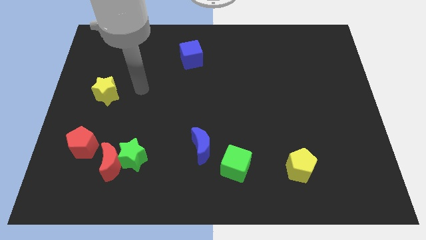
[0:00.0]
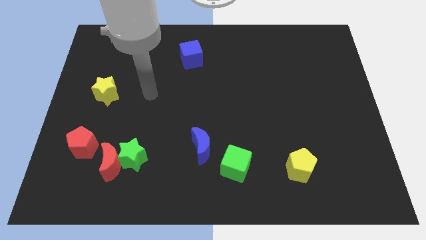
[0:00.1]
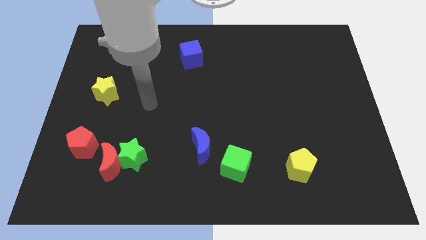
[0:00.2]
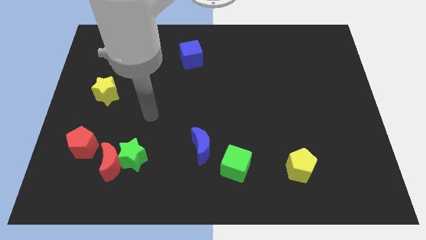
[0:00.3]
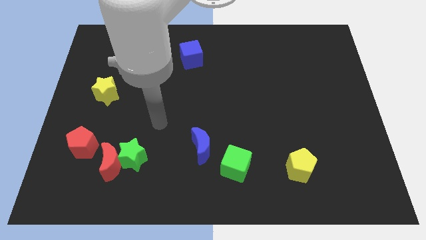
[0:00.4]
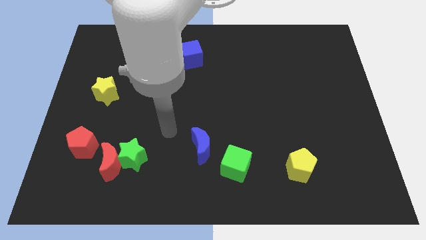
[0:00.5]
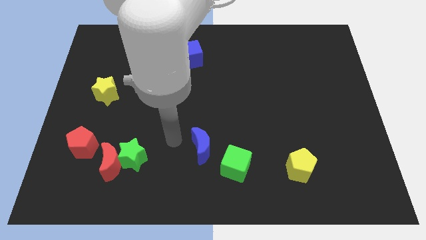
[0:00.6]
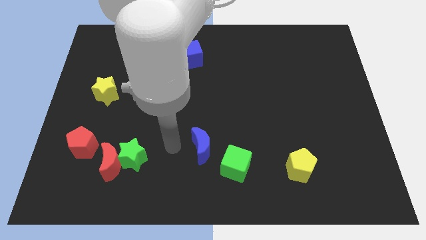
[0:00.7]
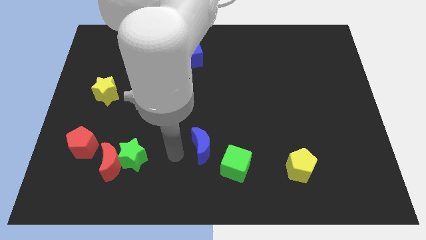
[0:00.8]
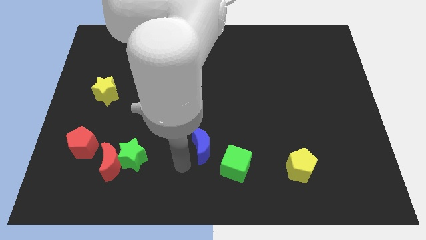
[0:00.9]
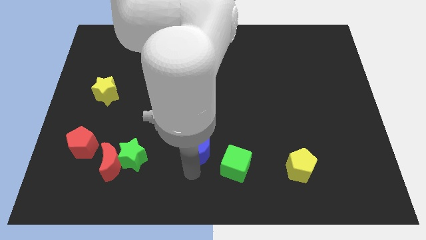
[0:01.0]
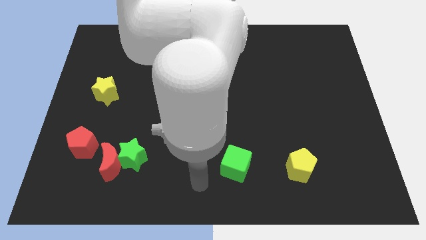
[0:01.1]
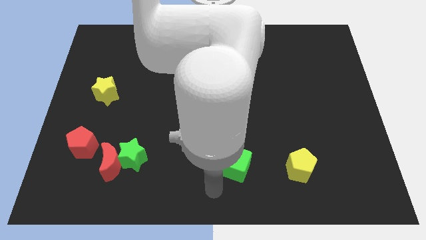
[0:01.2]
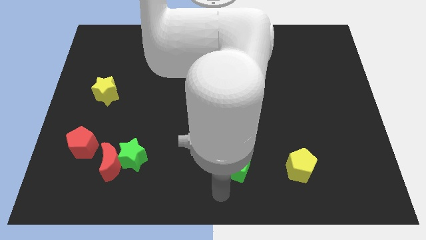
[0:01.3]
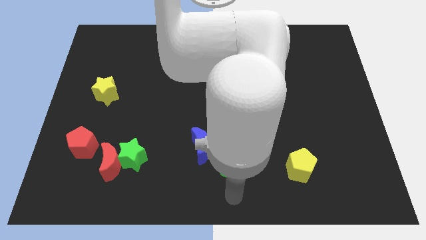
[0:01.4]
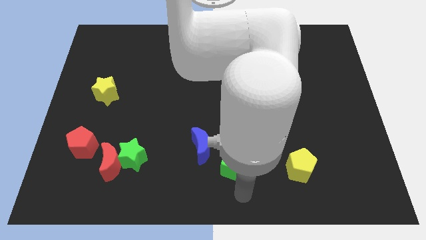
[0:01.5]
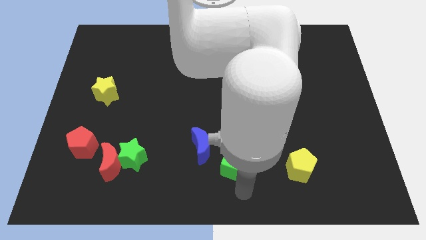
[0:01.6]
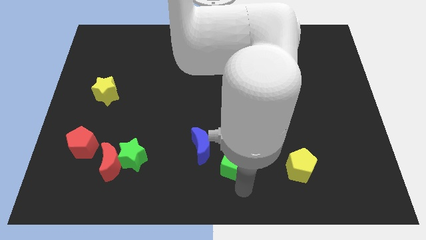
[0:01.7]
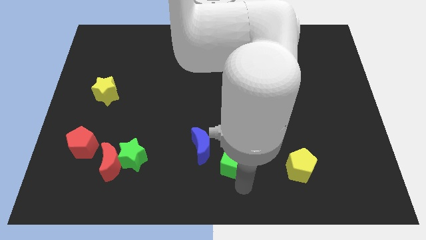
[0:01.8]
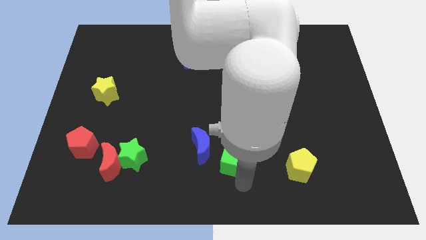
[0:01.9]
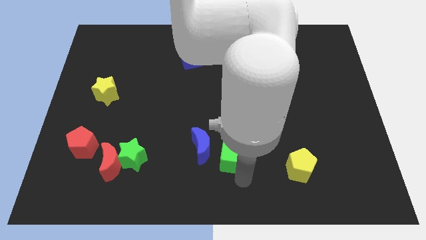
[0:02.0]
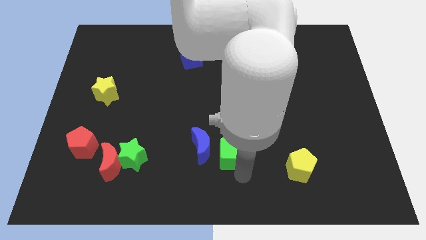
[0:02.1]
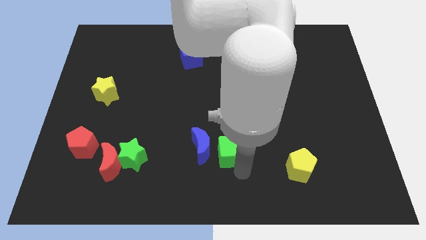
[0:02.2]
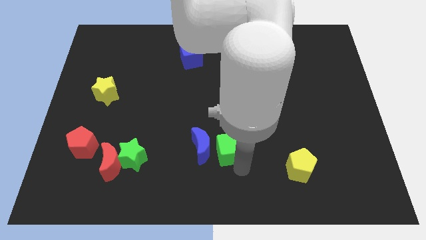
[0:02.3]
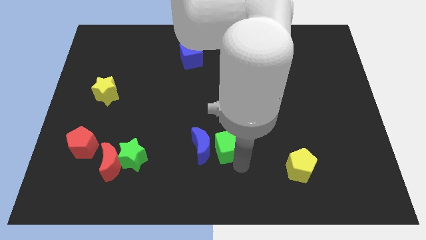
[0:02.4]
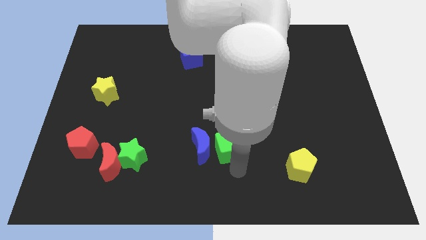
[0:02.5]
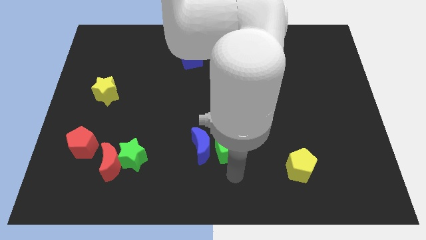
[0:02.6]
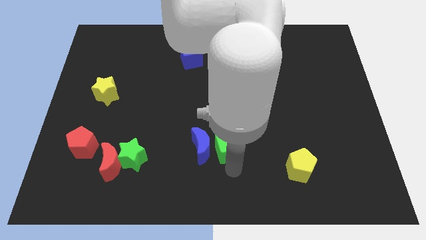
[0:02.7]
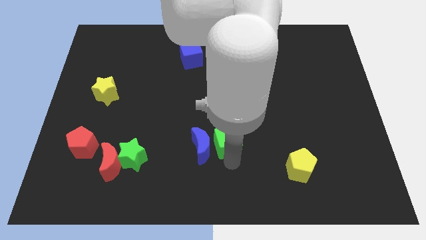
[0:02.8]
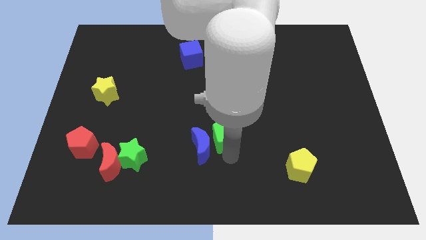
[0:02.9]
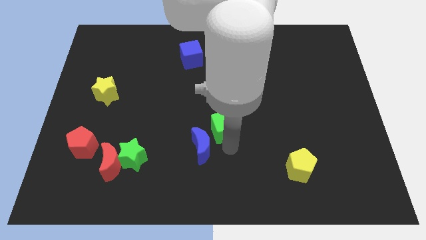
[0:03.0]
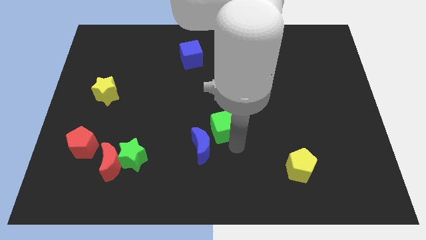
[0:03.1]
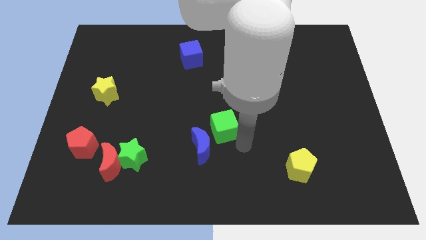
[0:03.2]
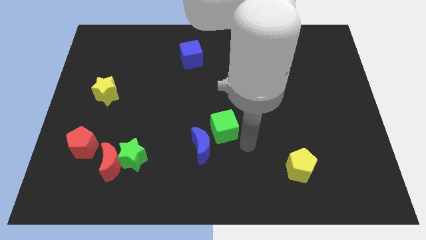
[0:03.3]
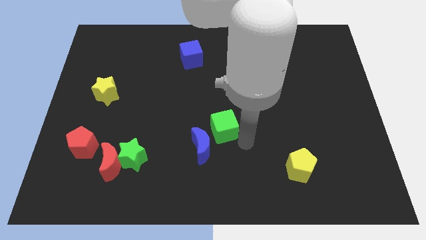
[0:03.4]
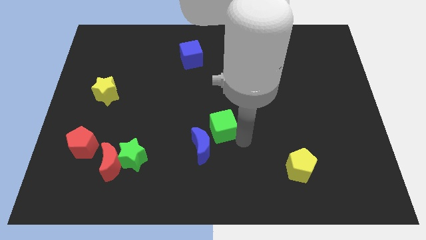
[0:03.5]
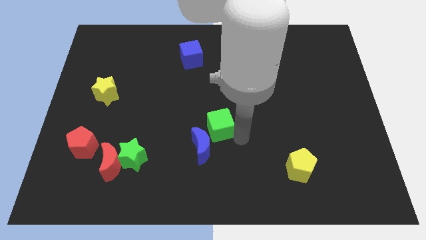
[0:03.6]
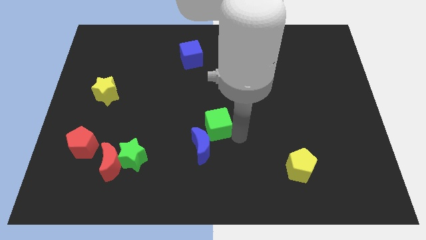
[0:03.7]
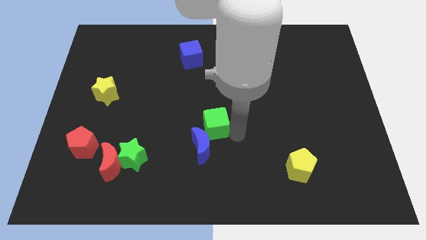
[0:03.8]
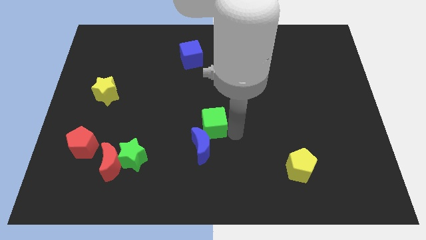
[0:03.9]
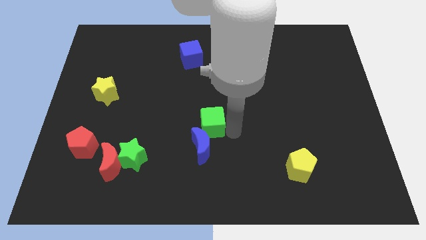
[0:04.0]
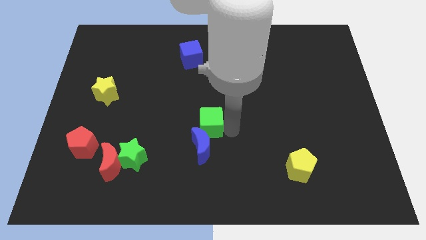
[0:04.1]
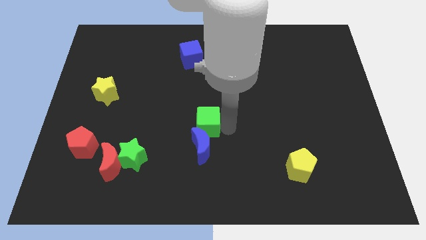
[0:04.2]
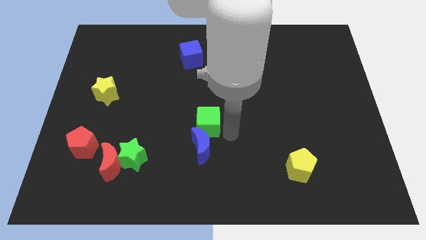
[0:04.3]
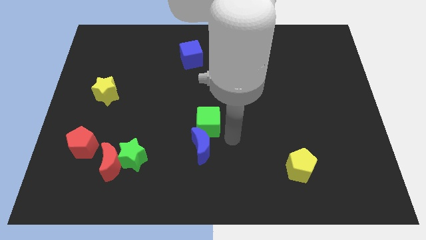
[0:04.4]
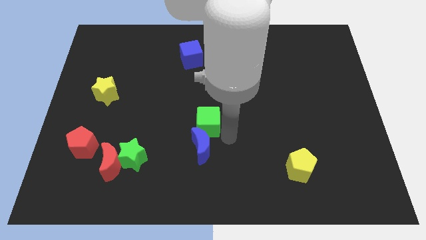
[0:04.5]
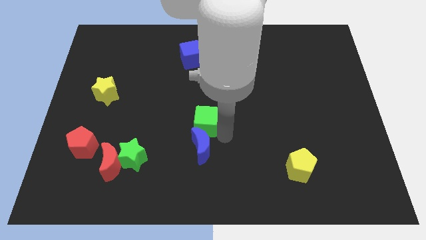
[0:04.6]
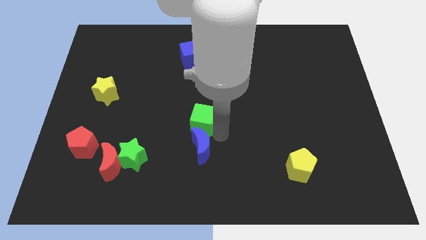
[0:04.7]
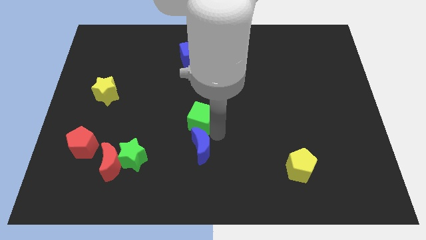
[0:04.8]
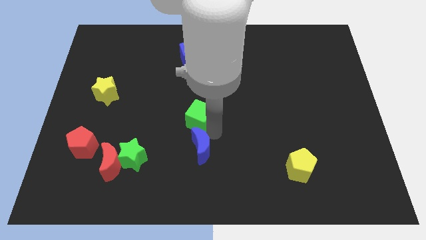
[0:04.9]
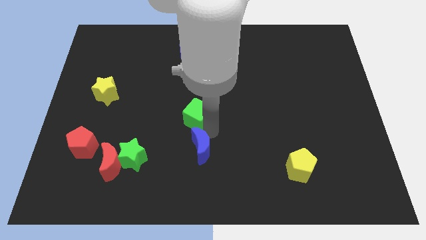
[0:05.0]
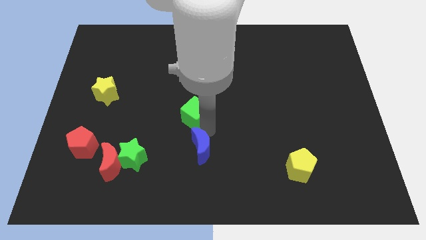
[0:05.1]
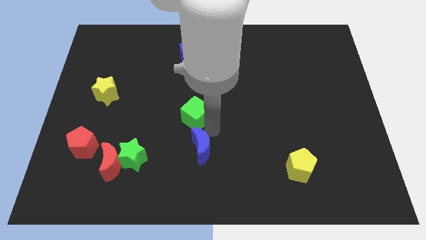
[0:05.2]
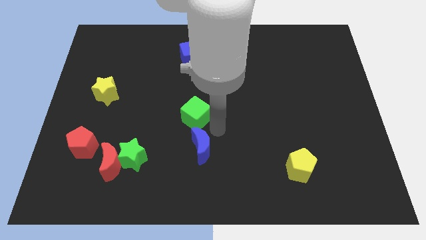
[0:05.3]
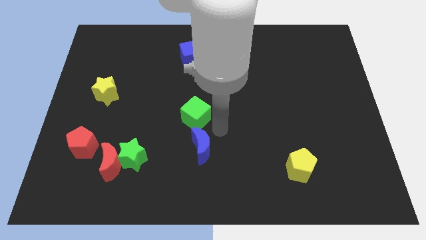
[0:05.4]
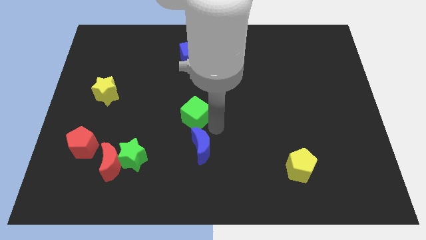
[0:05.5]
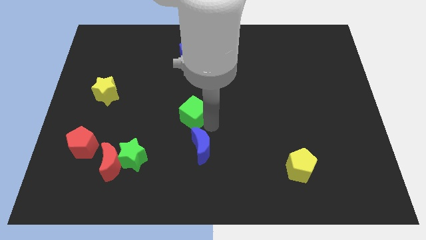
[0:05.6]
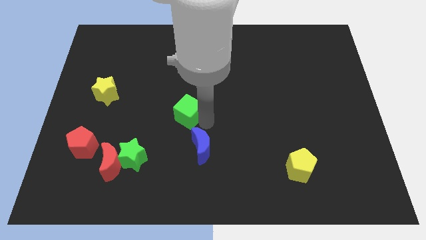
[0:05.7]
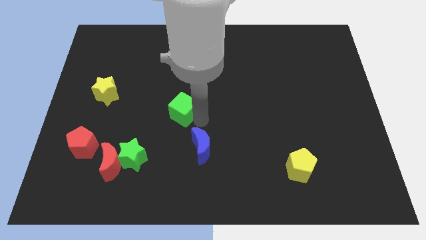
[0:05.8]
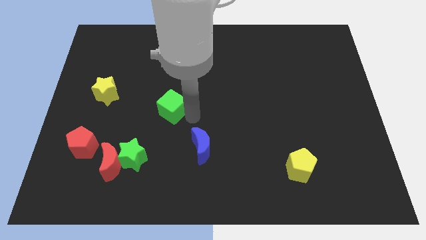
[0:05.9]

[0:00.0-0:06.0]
push the green cube up and to the left diagonally

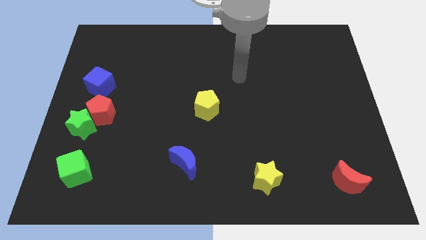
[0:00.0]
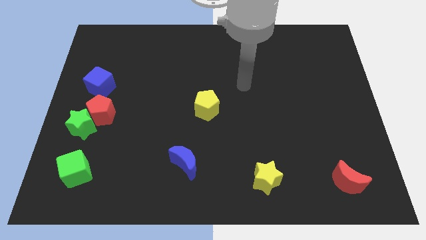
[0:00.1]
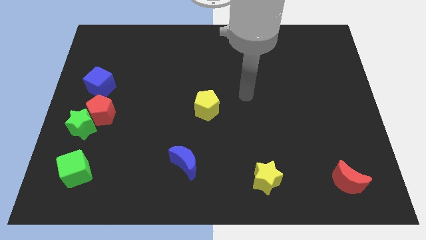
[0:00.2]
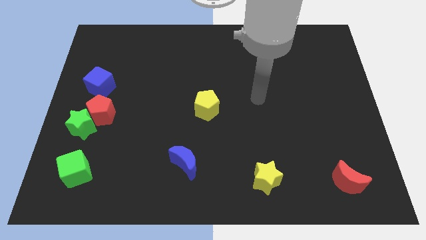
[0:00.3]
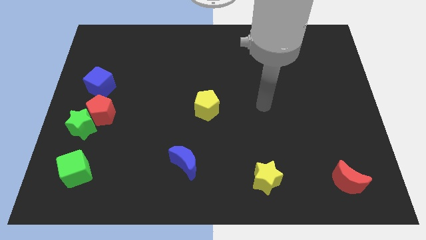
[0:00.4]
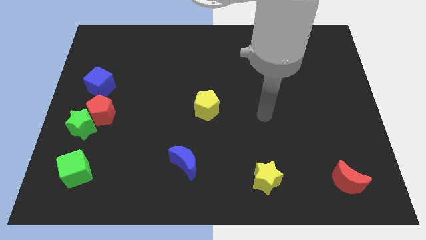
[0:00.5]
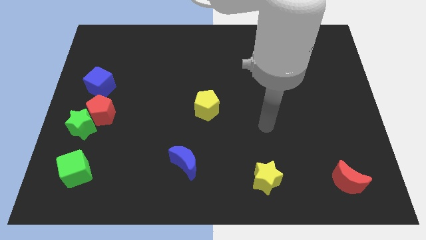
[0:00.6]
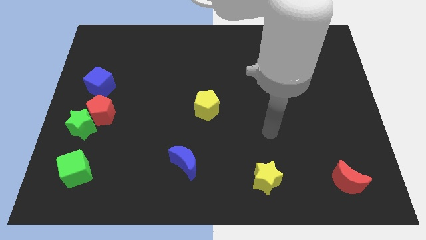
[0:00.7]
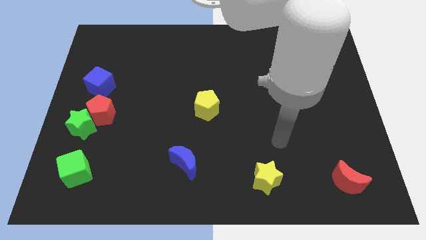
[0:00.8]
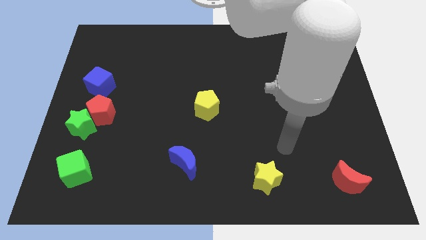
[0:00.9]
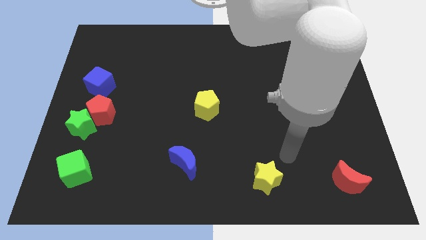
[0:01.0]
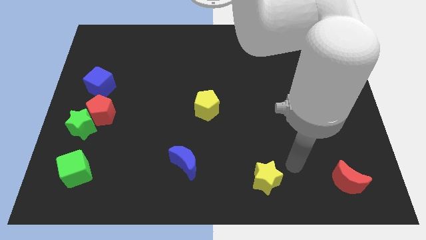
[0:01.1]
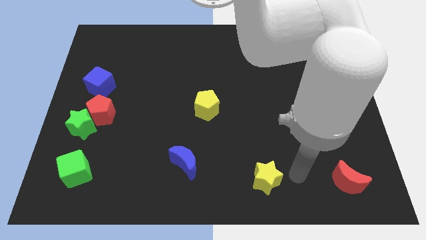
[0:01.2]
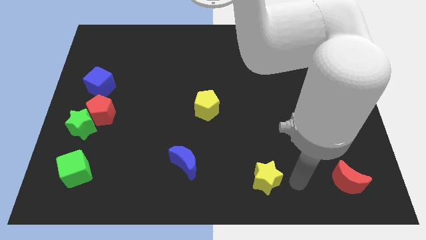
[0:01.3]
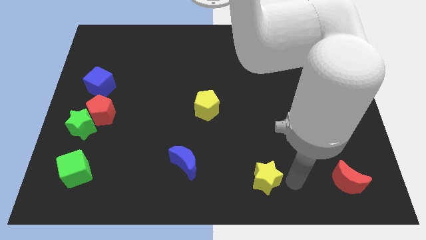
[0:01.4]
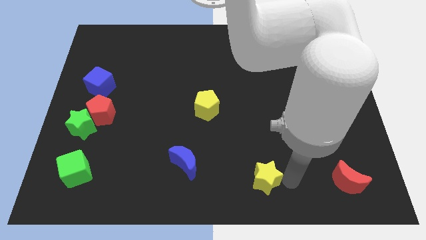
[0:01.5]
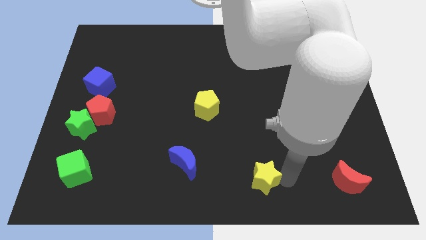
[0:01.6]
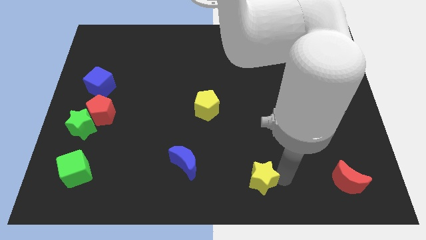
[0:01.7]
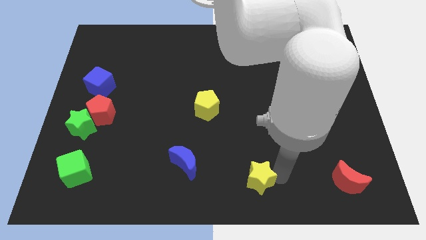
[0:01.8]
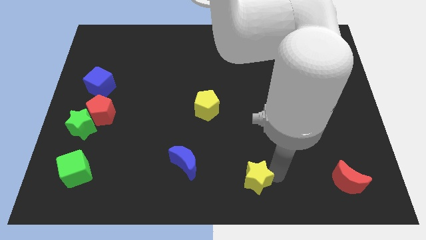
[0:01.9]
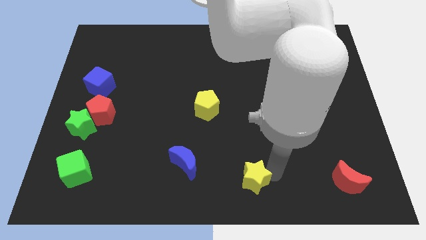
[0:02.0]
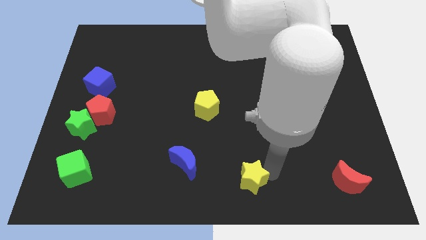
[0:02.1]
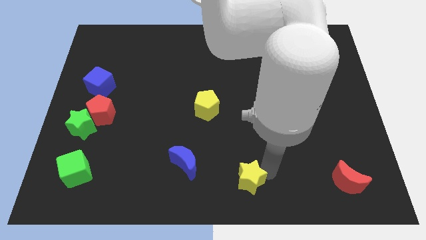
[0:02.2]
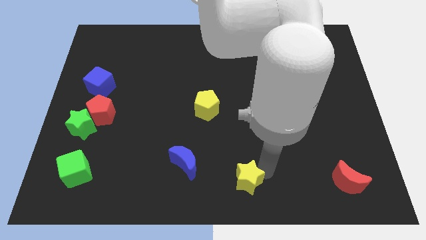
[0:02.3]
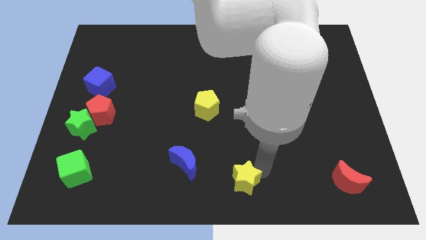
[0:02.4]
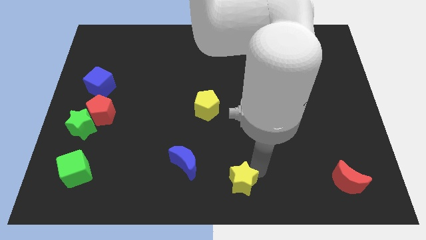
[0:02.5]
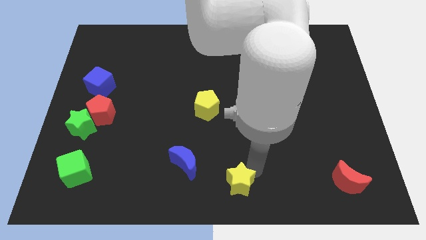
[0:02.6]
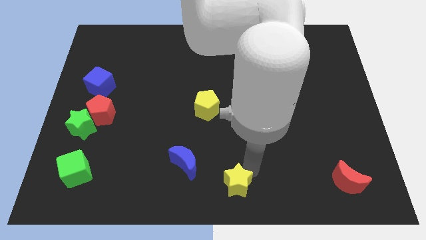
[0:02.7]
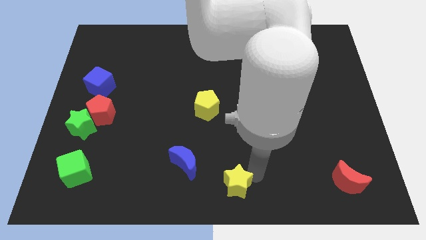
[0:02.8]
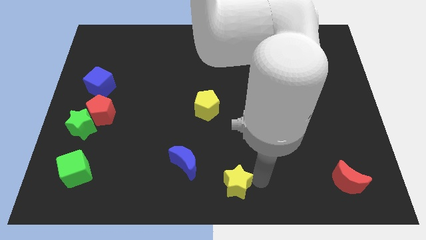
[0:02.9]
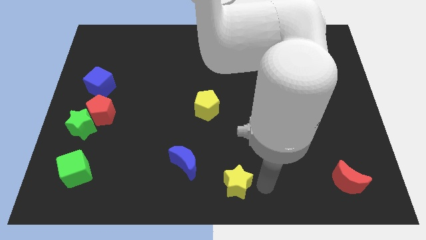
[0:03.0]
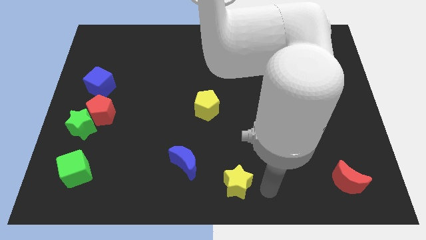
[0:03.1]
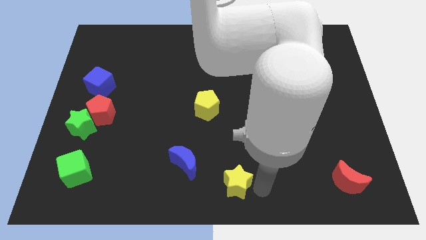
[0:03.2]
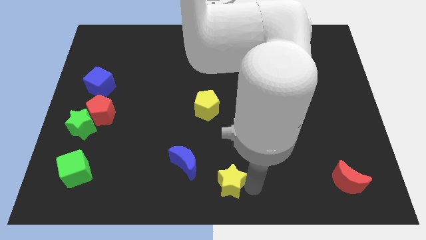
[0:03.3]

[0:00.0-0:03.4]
slide the yellow star left a bit
